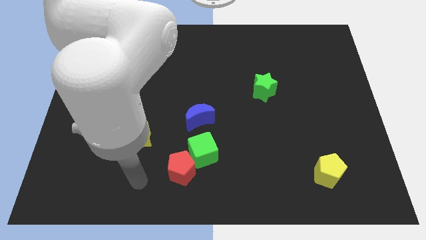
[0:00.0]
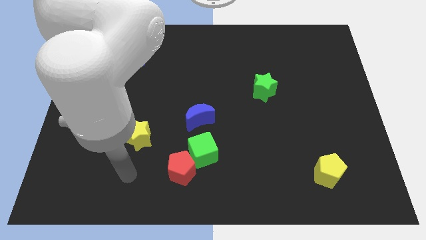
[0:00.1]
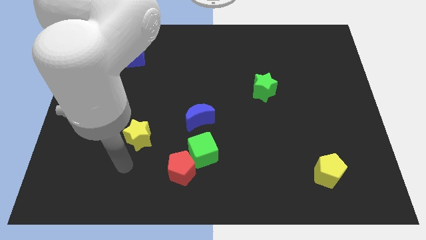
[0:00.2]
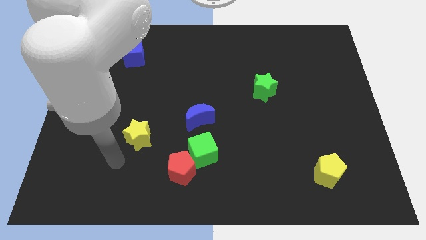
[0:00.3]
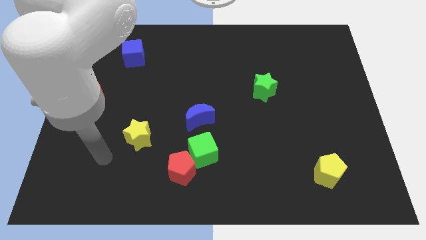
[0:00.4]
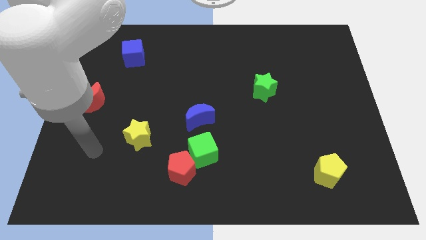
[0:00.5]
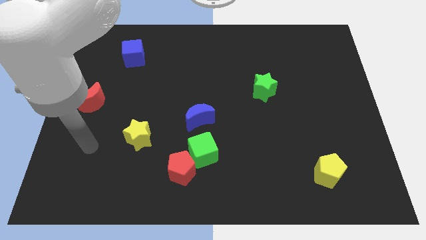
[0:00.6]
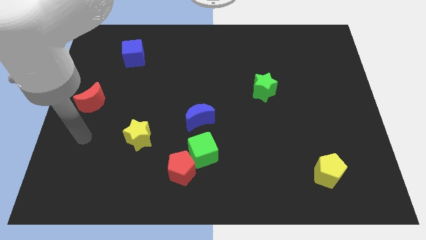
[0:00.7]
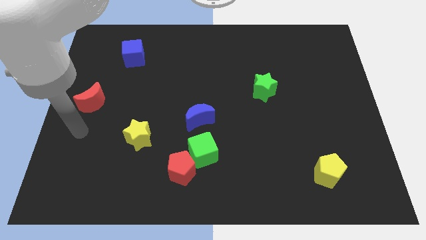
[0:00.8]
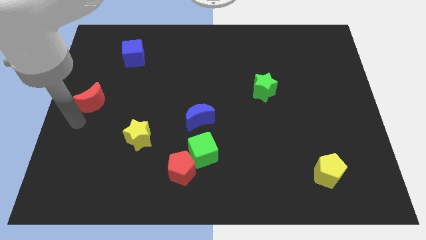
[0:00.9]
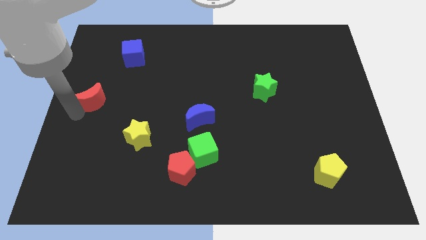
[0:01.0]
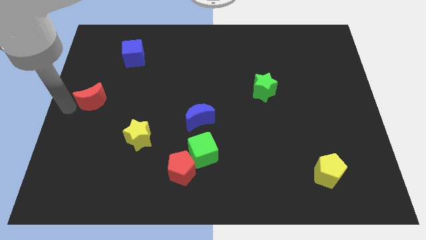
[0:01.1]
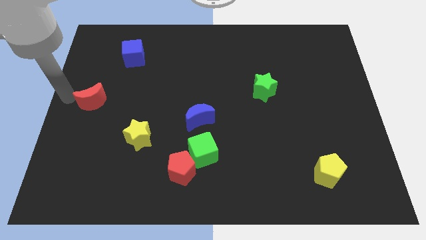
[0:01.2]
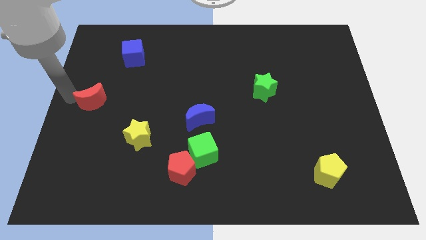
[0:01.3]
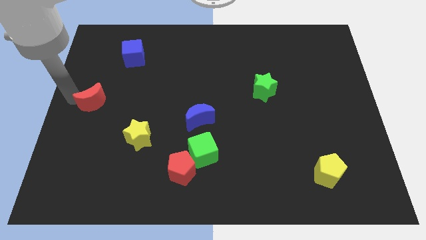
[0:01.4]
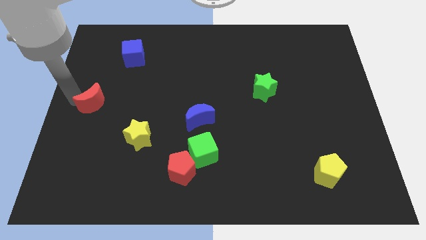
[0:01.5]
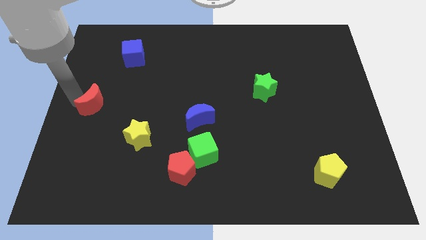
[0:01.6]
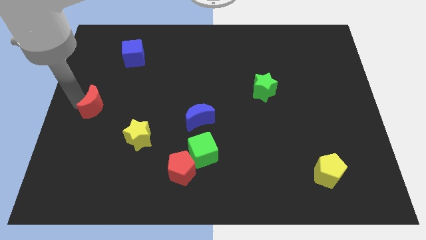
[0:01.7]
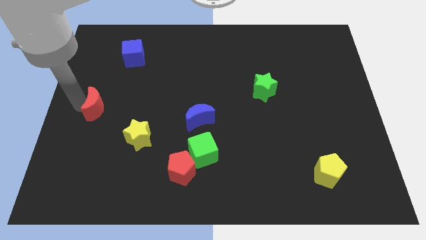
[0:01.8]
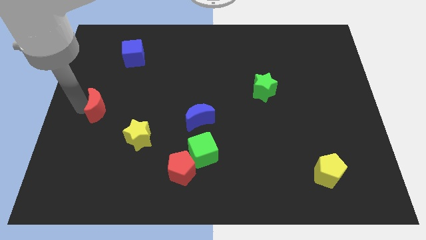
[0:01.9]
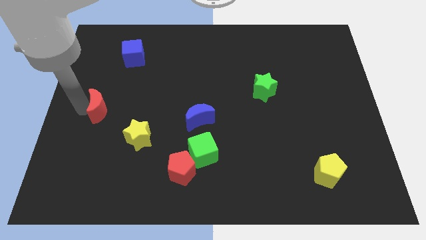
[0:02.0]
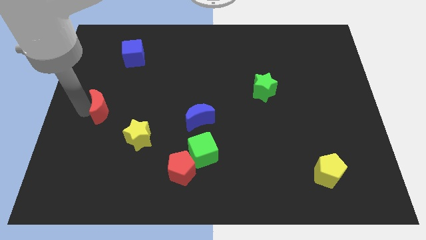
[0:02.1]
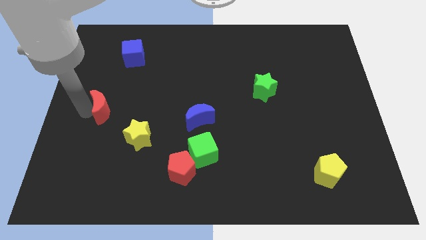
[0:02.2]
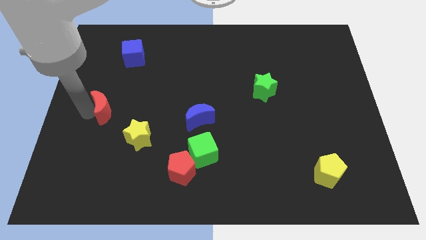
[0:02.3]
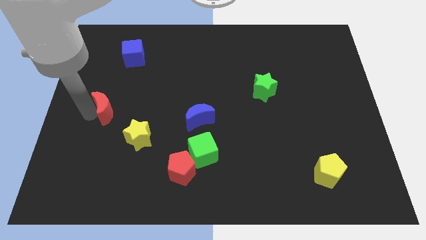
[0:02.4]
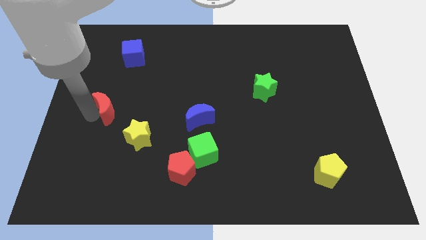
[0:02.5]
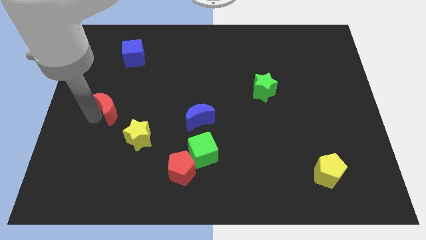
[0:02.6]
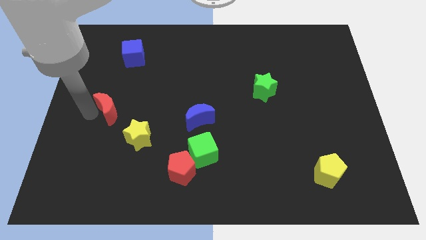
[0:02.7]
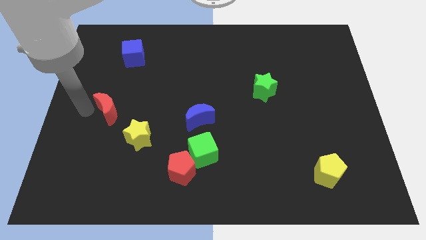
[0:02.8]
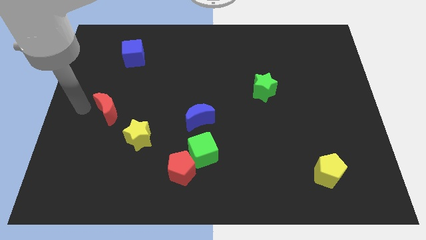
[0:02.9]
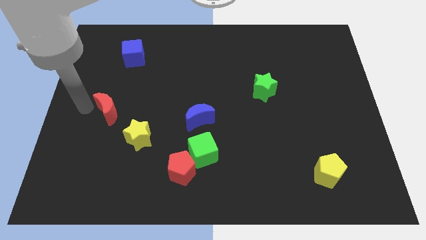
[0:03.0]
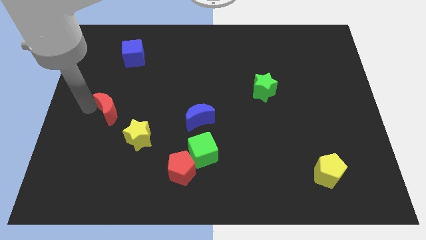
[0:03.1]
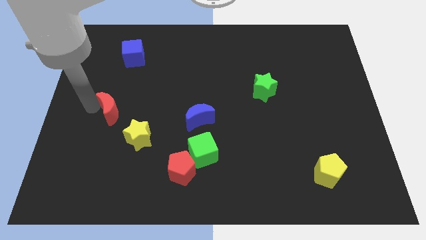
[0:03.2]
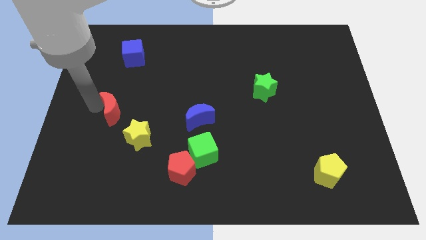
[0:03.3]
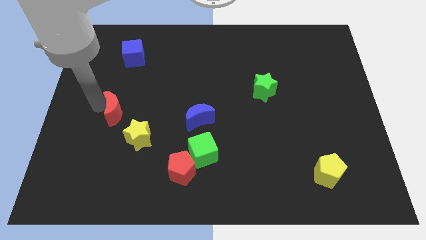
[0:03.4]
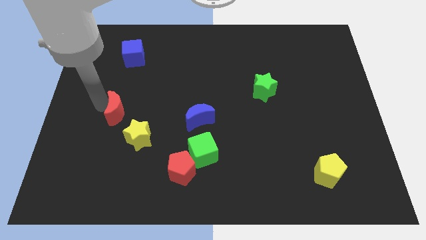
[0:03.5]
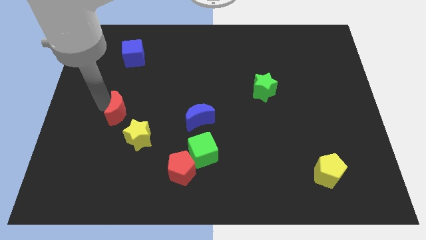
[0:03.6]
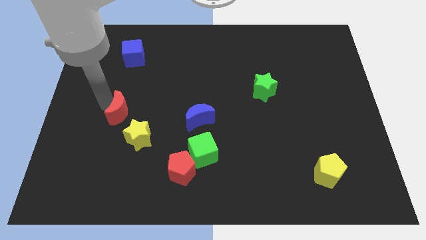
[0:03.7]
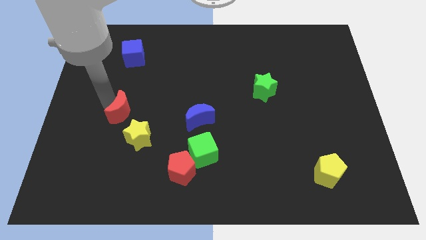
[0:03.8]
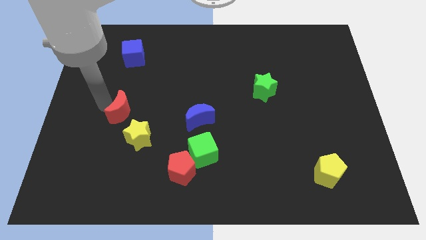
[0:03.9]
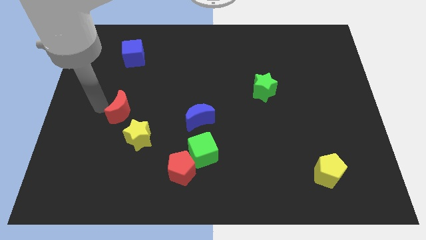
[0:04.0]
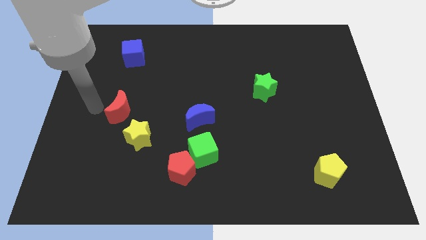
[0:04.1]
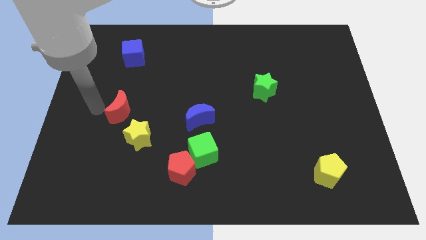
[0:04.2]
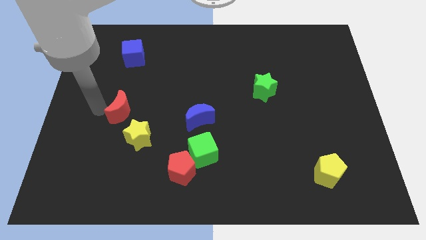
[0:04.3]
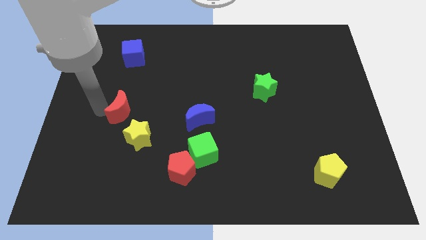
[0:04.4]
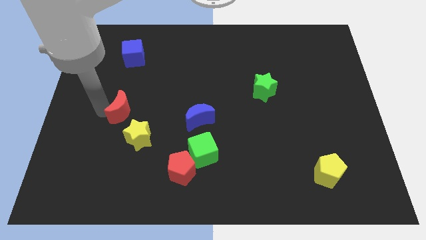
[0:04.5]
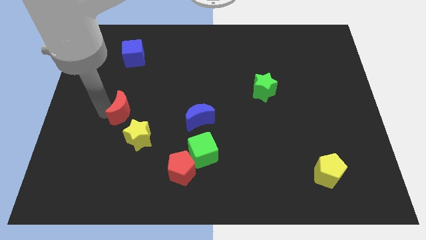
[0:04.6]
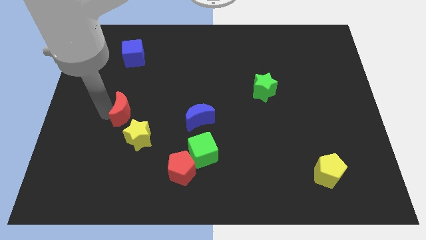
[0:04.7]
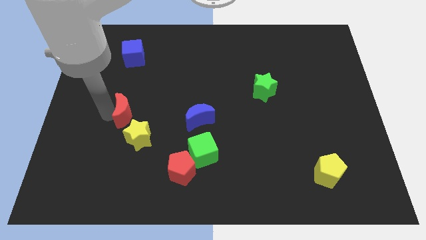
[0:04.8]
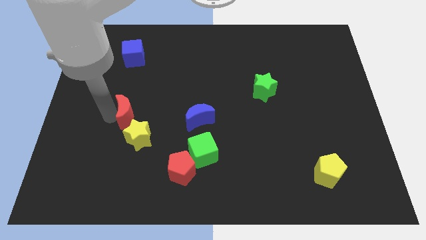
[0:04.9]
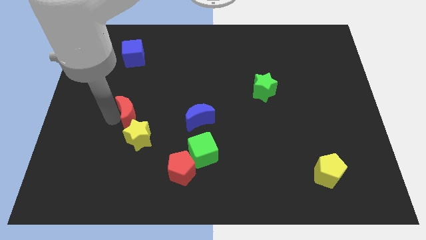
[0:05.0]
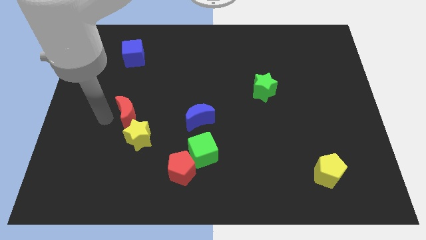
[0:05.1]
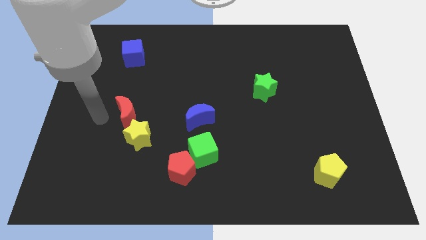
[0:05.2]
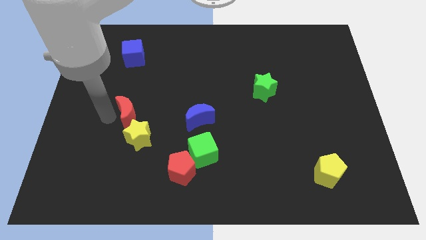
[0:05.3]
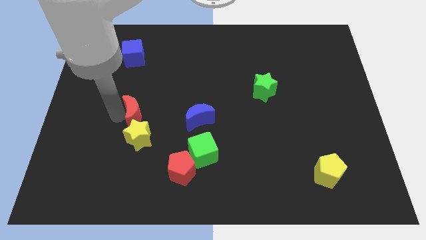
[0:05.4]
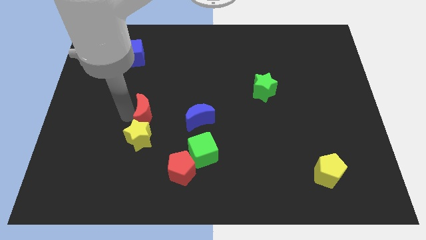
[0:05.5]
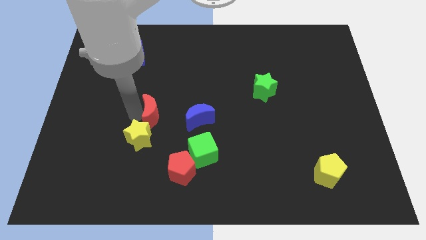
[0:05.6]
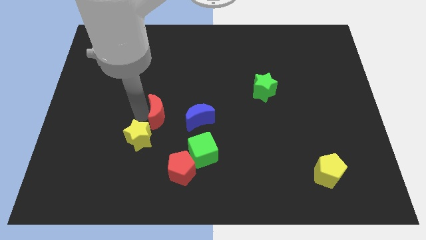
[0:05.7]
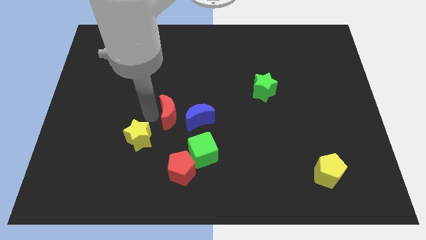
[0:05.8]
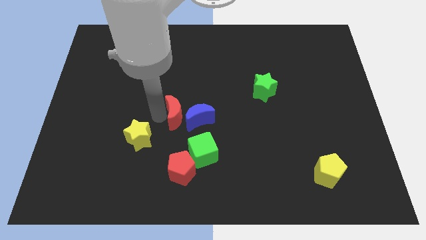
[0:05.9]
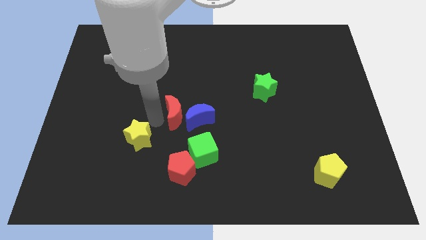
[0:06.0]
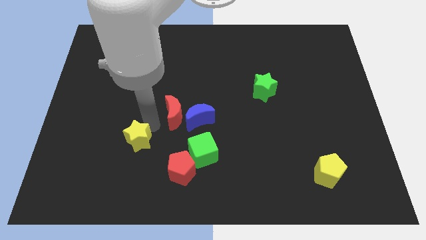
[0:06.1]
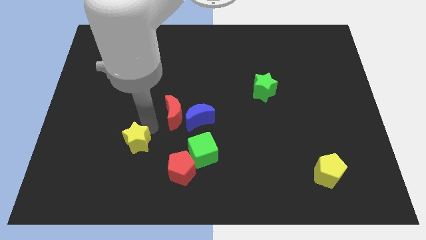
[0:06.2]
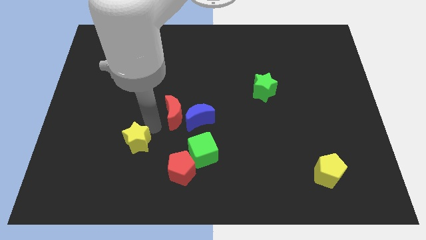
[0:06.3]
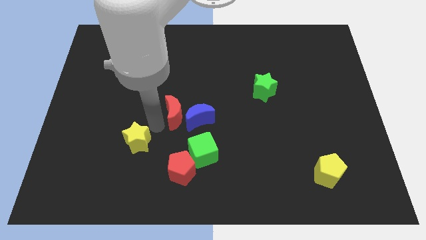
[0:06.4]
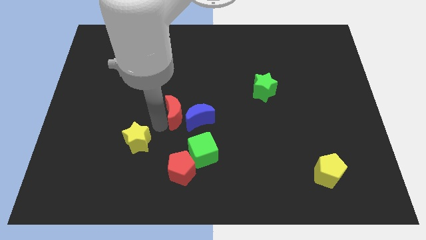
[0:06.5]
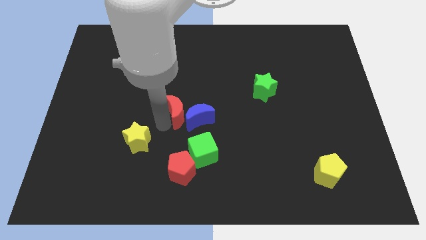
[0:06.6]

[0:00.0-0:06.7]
slide the red moon right

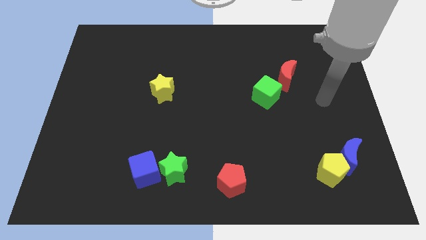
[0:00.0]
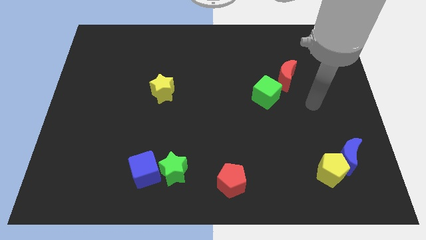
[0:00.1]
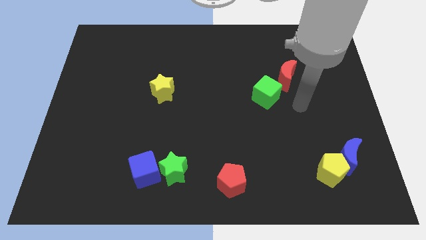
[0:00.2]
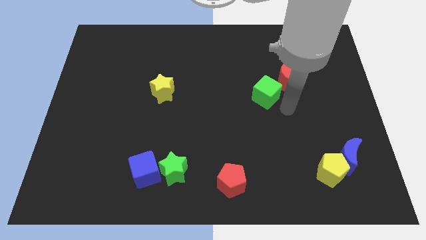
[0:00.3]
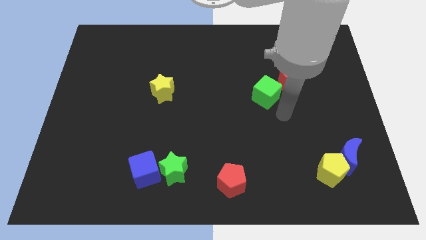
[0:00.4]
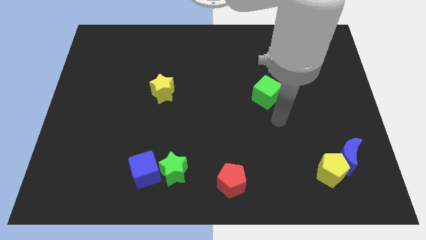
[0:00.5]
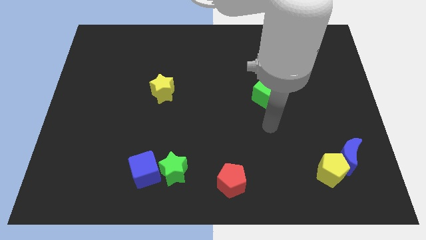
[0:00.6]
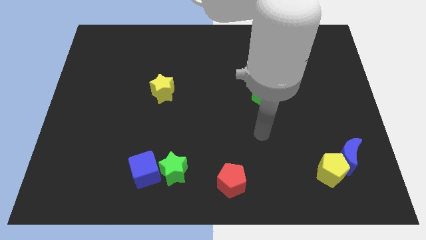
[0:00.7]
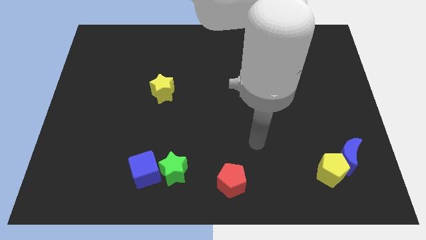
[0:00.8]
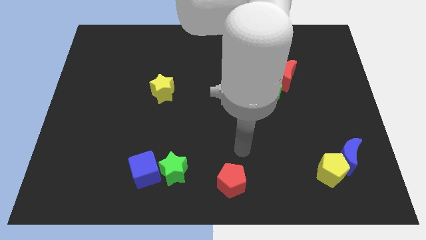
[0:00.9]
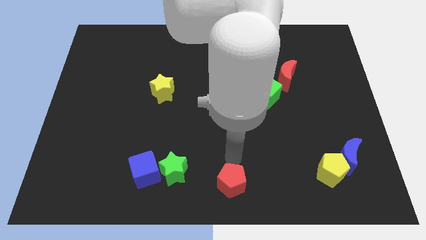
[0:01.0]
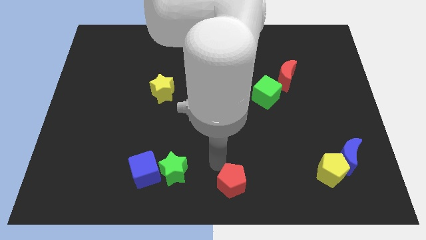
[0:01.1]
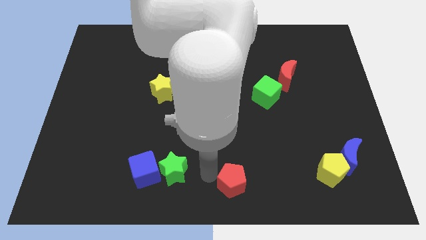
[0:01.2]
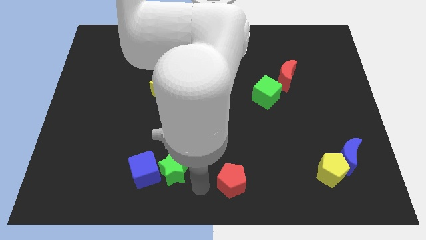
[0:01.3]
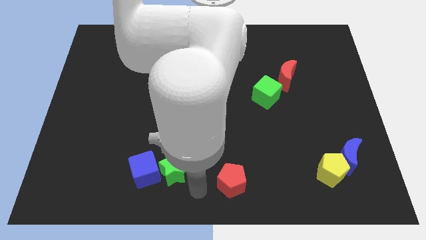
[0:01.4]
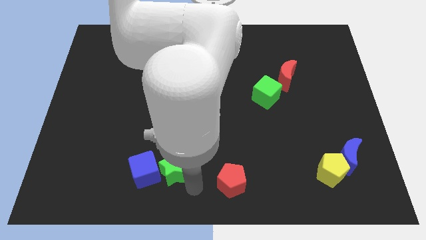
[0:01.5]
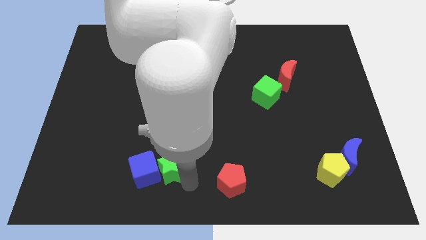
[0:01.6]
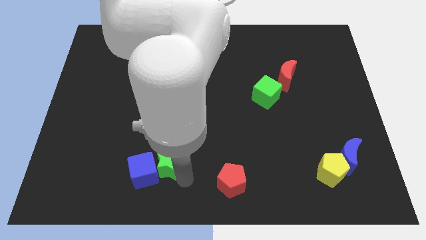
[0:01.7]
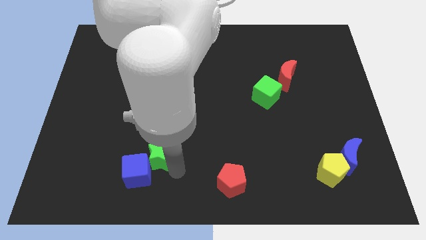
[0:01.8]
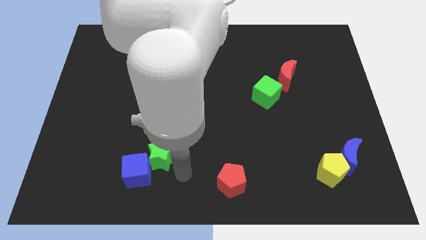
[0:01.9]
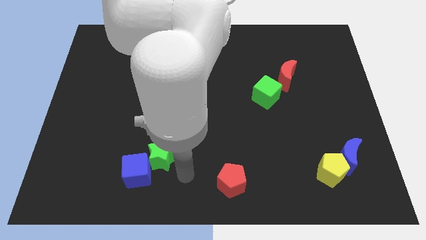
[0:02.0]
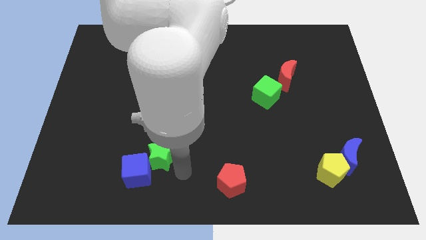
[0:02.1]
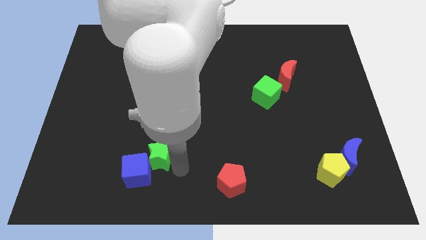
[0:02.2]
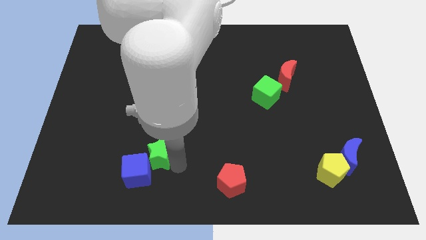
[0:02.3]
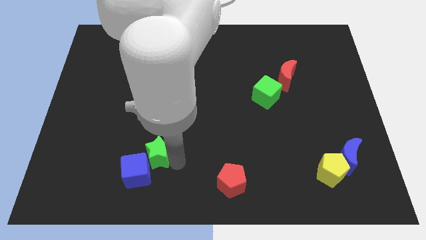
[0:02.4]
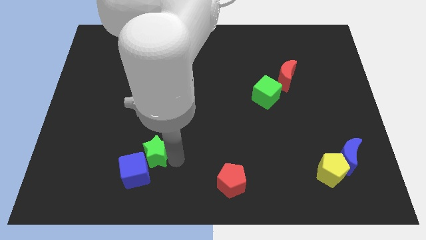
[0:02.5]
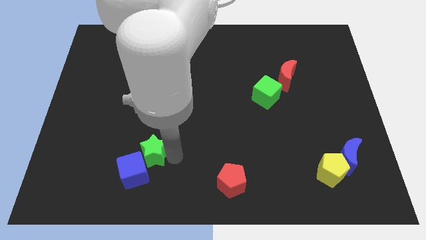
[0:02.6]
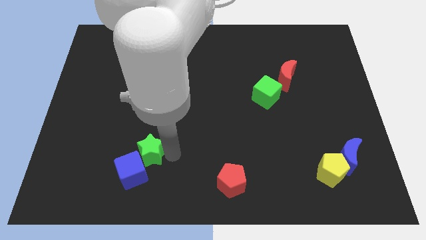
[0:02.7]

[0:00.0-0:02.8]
slightly move the green star upwards and to the left
